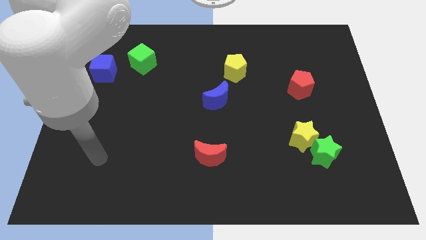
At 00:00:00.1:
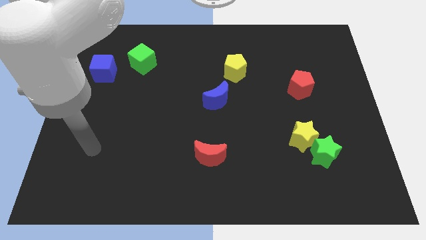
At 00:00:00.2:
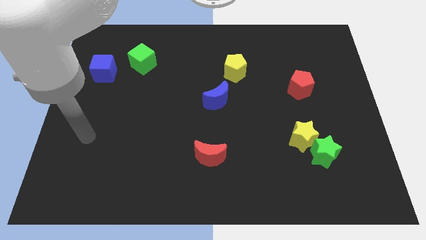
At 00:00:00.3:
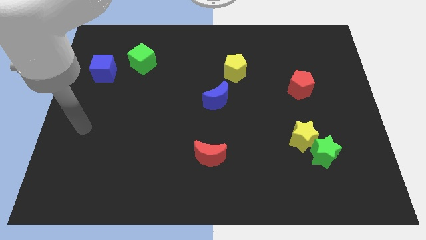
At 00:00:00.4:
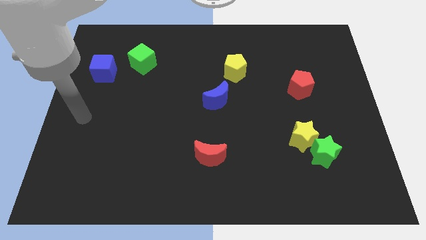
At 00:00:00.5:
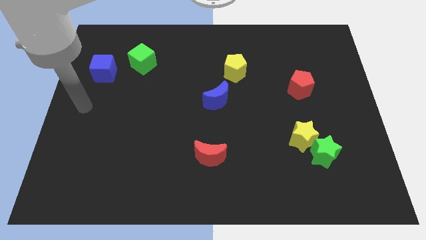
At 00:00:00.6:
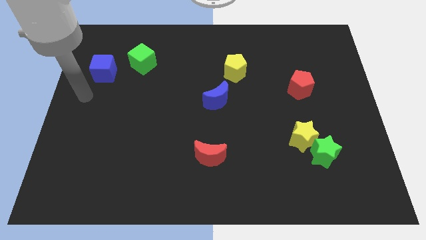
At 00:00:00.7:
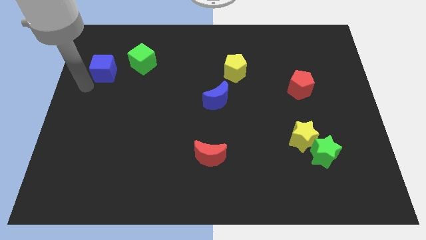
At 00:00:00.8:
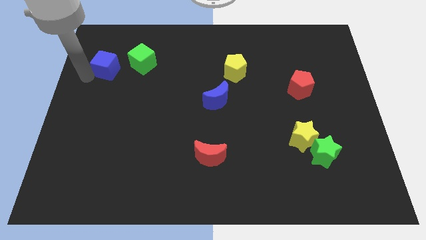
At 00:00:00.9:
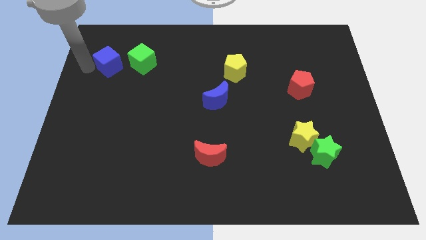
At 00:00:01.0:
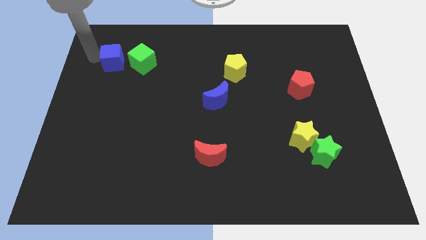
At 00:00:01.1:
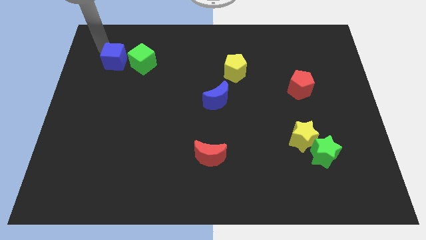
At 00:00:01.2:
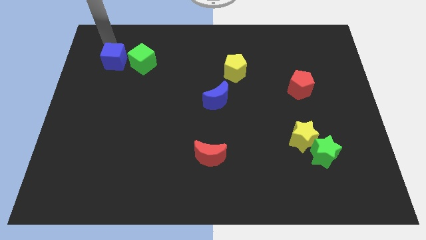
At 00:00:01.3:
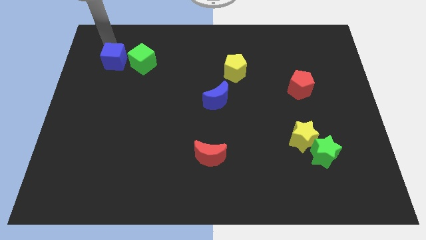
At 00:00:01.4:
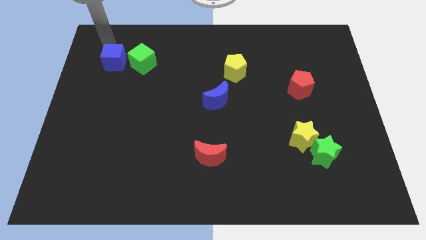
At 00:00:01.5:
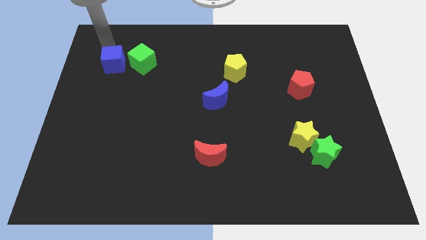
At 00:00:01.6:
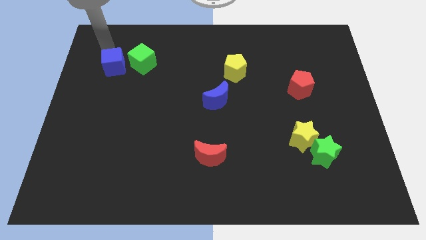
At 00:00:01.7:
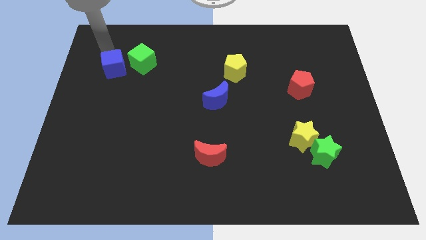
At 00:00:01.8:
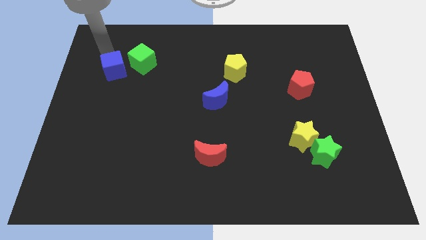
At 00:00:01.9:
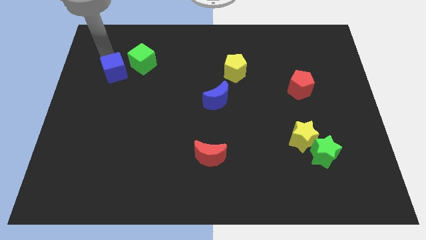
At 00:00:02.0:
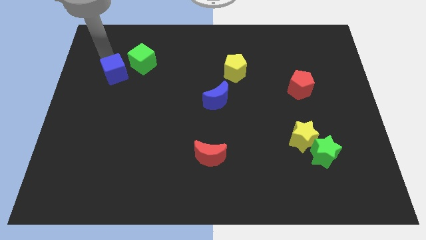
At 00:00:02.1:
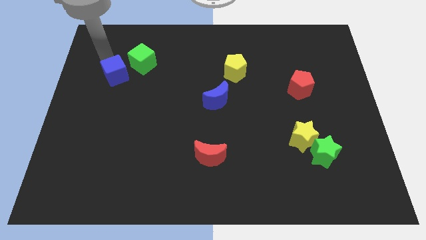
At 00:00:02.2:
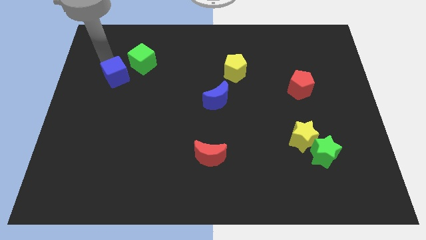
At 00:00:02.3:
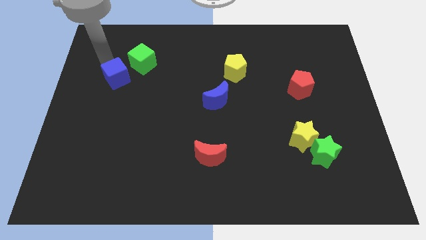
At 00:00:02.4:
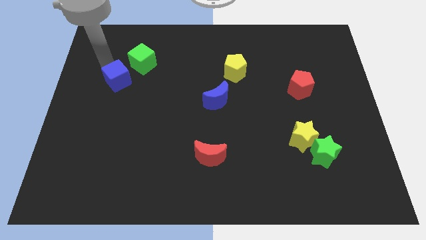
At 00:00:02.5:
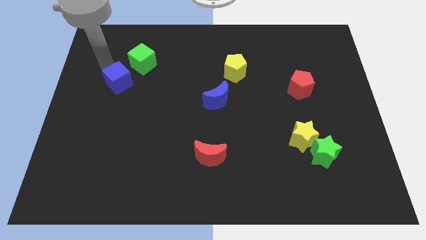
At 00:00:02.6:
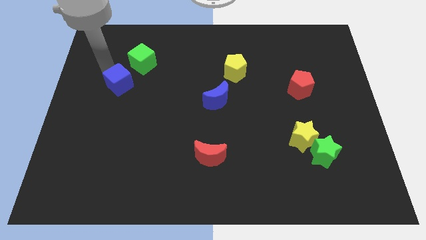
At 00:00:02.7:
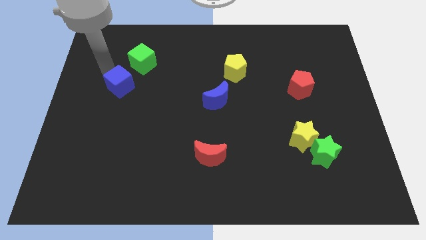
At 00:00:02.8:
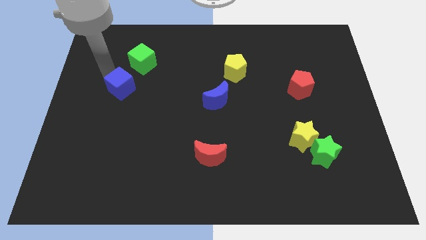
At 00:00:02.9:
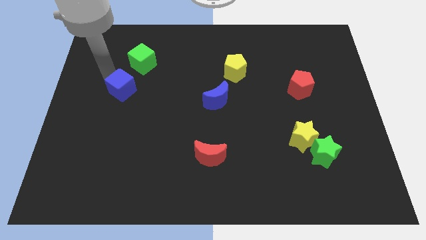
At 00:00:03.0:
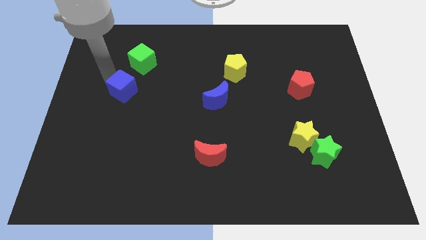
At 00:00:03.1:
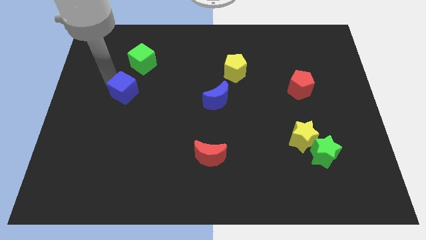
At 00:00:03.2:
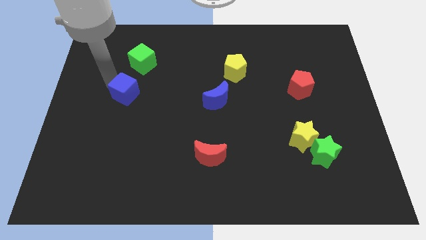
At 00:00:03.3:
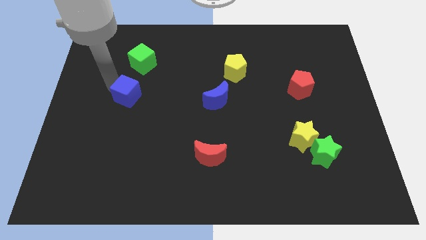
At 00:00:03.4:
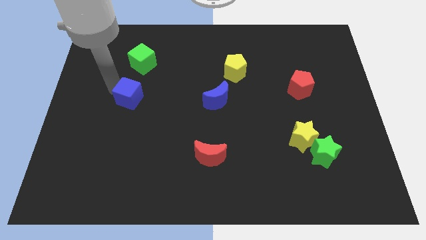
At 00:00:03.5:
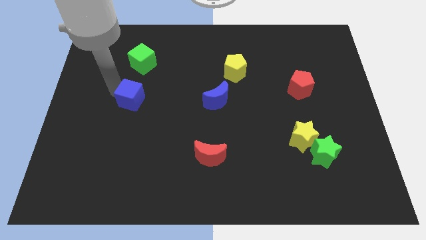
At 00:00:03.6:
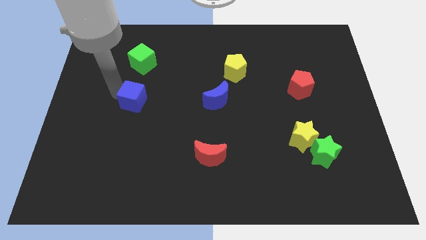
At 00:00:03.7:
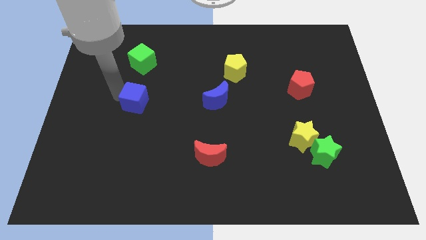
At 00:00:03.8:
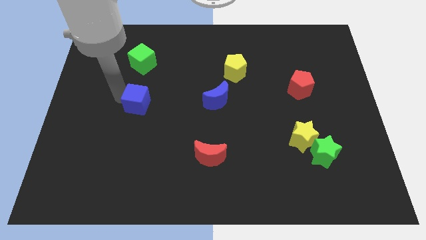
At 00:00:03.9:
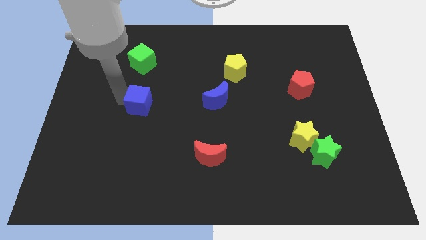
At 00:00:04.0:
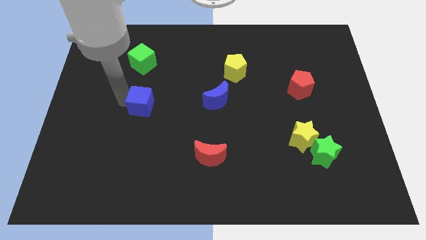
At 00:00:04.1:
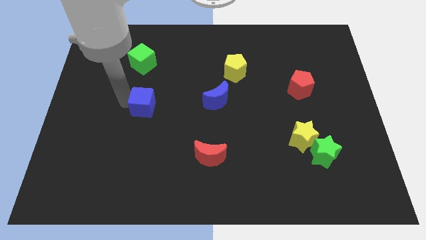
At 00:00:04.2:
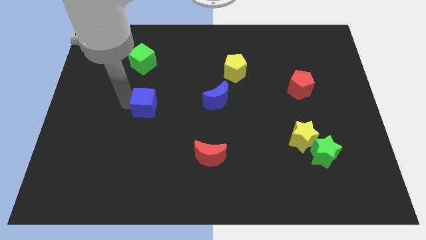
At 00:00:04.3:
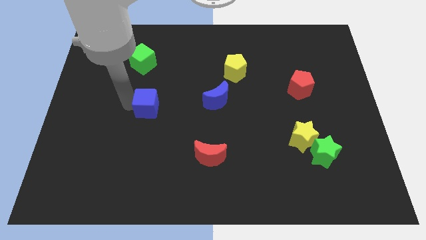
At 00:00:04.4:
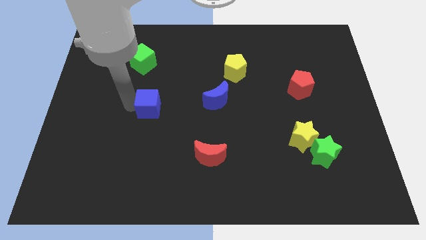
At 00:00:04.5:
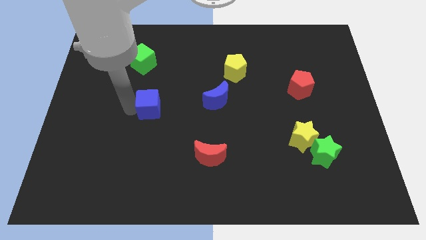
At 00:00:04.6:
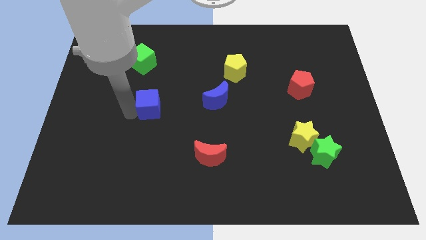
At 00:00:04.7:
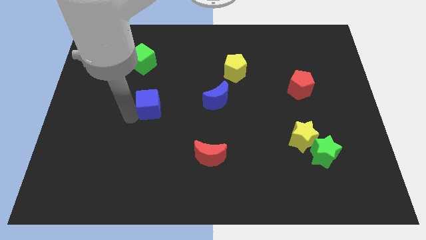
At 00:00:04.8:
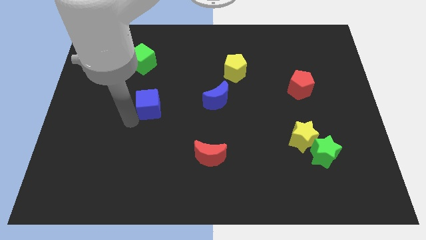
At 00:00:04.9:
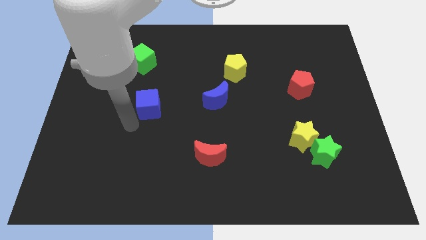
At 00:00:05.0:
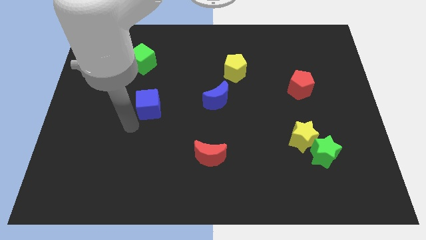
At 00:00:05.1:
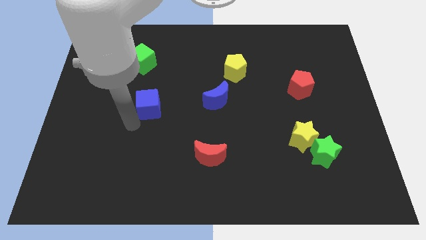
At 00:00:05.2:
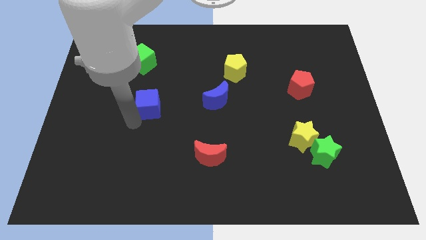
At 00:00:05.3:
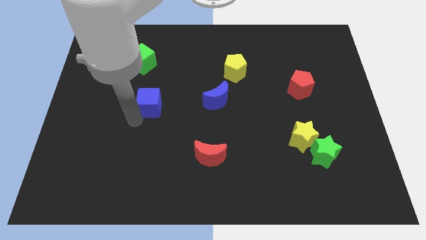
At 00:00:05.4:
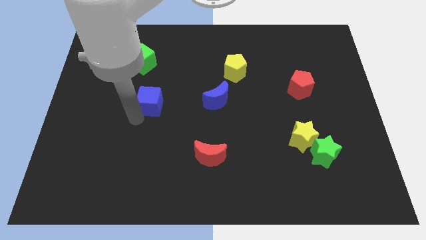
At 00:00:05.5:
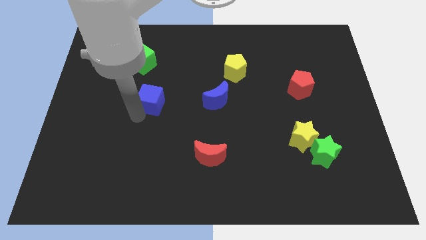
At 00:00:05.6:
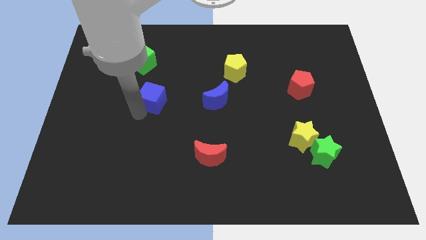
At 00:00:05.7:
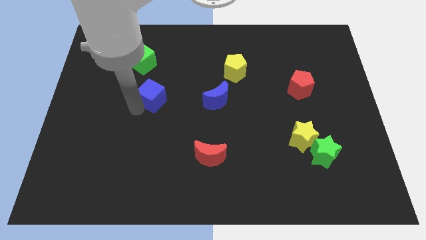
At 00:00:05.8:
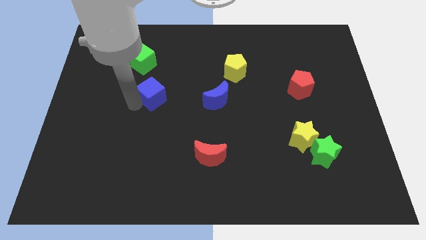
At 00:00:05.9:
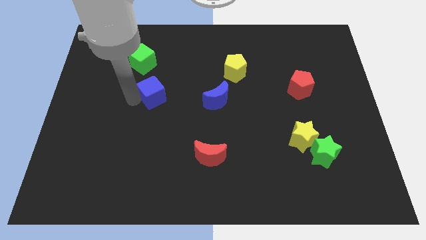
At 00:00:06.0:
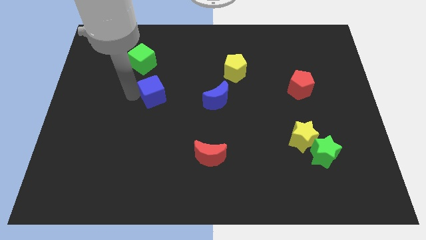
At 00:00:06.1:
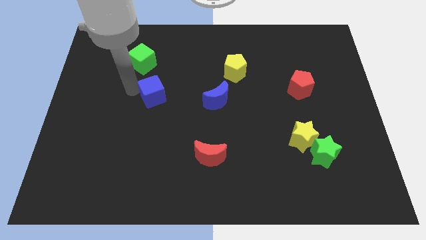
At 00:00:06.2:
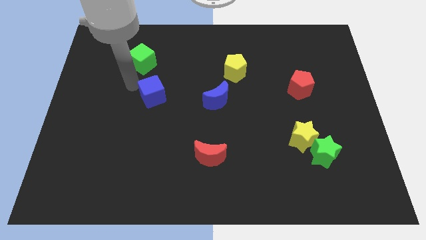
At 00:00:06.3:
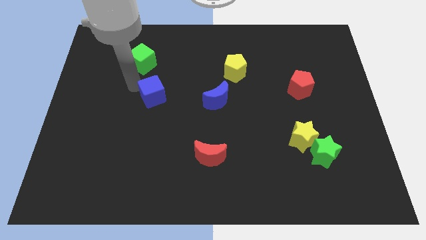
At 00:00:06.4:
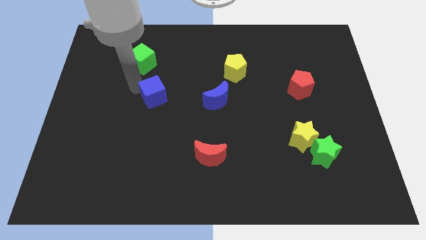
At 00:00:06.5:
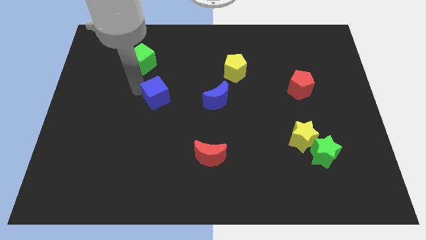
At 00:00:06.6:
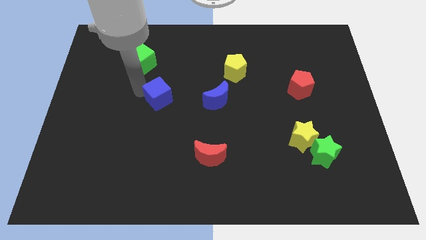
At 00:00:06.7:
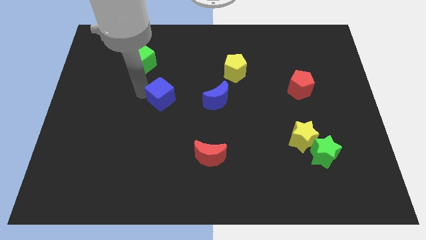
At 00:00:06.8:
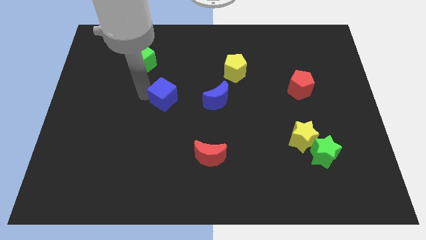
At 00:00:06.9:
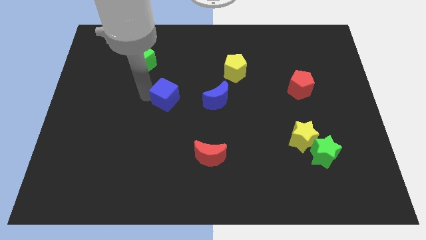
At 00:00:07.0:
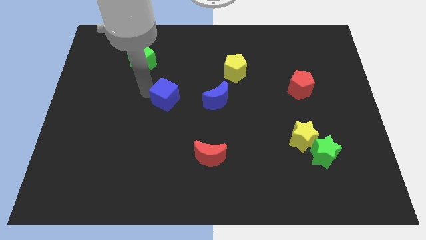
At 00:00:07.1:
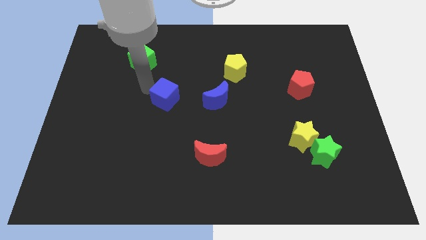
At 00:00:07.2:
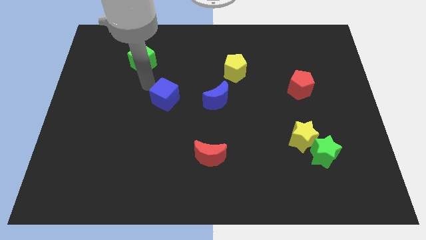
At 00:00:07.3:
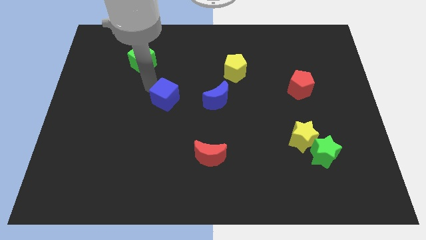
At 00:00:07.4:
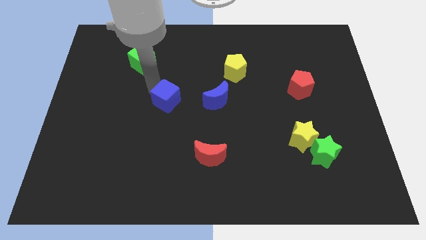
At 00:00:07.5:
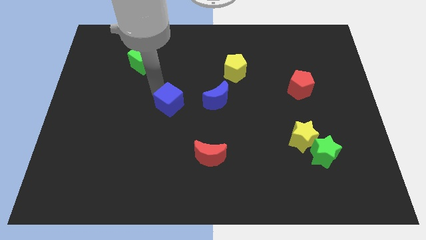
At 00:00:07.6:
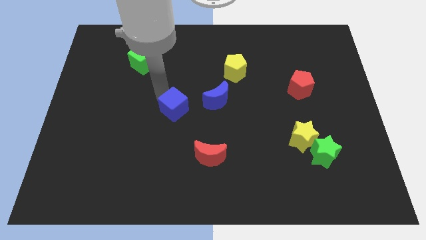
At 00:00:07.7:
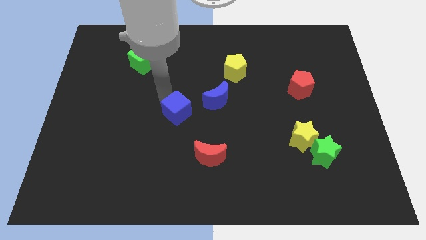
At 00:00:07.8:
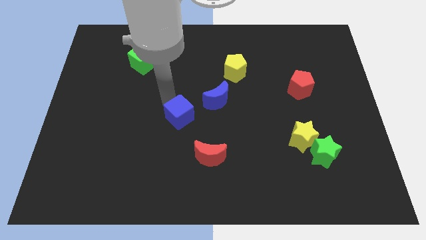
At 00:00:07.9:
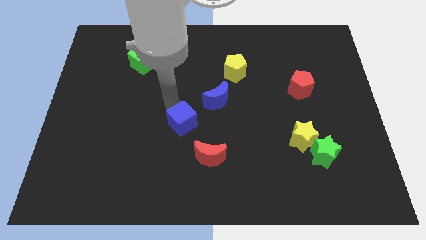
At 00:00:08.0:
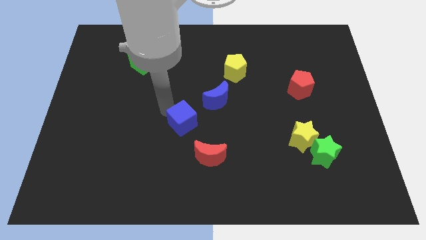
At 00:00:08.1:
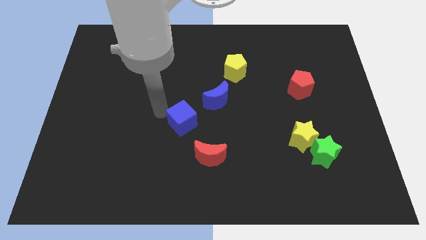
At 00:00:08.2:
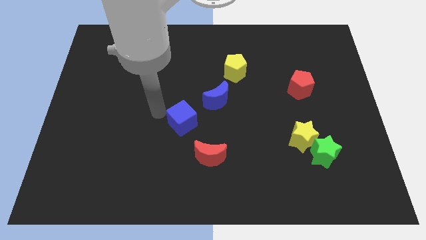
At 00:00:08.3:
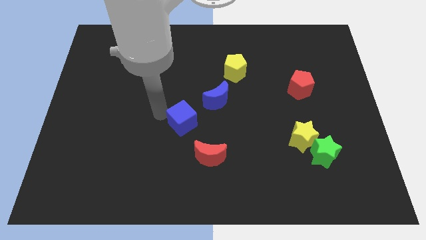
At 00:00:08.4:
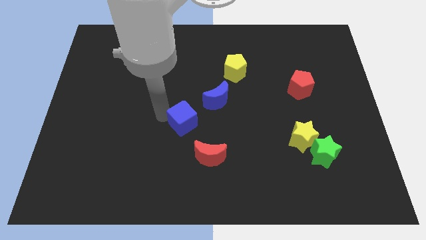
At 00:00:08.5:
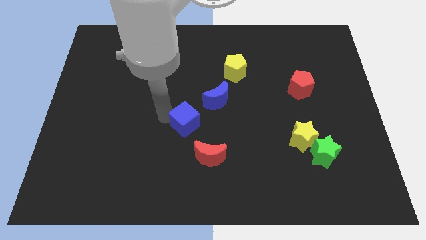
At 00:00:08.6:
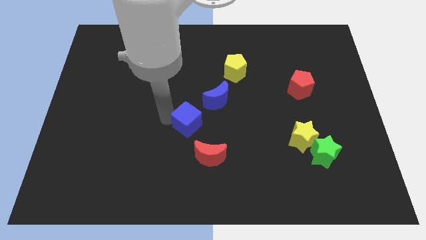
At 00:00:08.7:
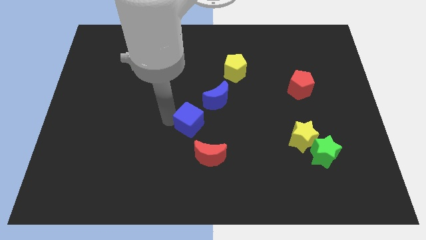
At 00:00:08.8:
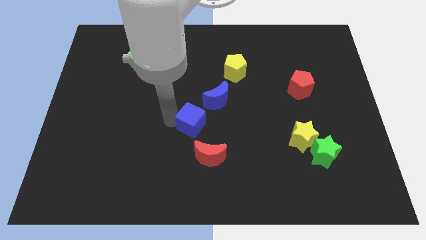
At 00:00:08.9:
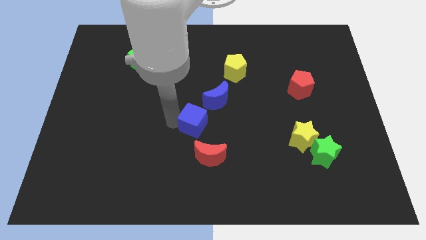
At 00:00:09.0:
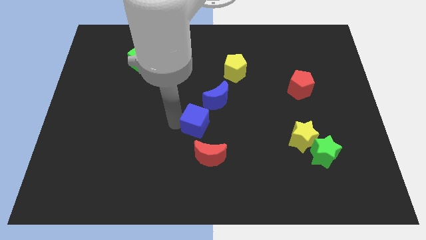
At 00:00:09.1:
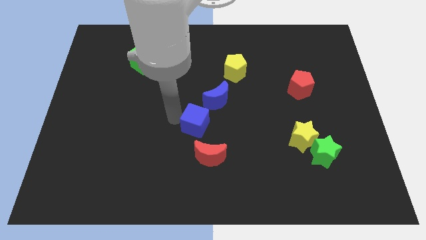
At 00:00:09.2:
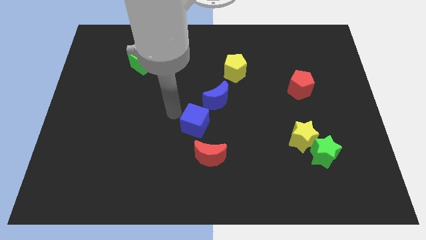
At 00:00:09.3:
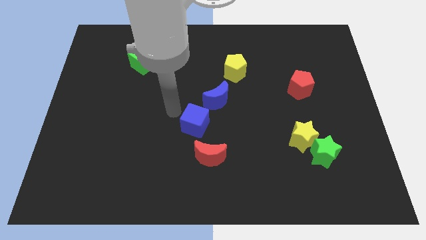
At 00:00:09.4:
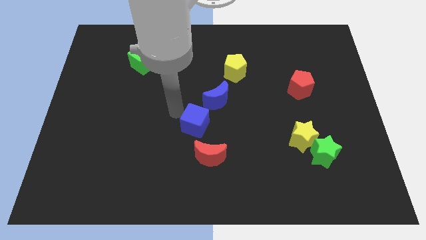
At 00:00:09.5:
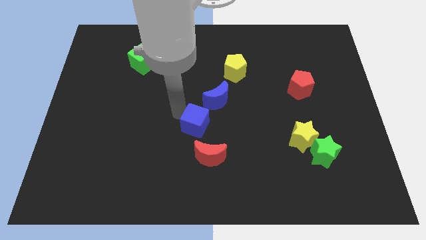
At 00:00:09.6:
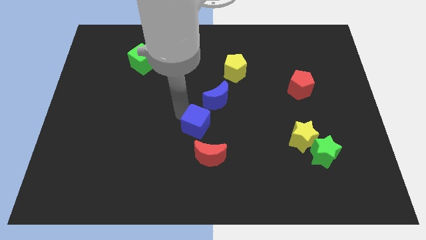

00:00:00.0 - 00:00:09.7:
slide the blue cube to the bottom side of the blue moon
